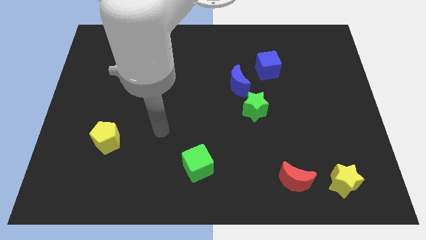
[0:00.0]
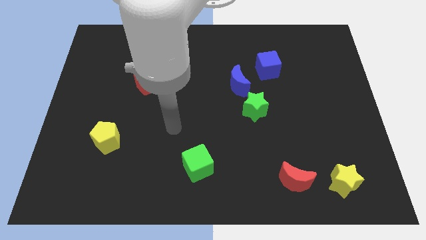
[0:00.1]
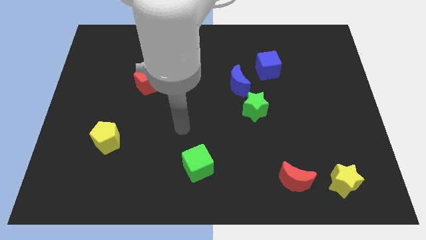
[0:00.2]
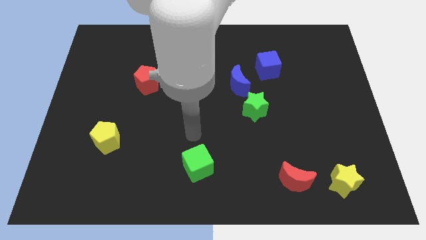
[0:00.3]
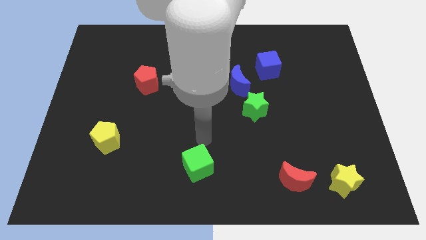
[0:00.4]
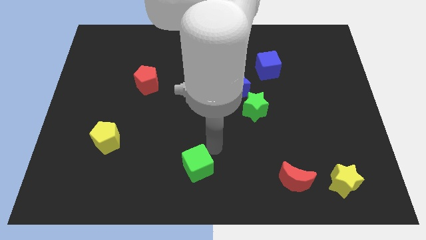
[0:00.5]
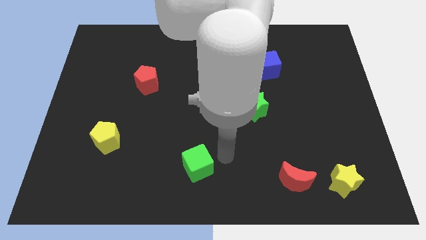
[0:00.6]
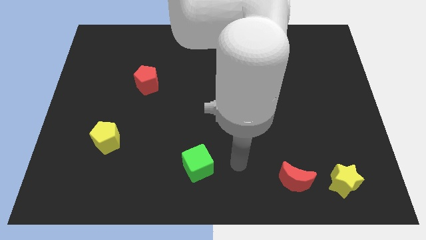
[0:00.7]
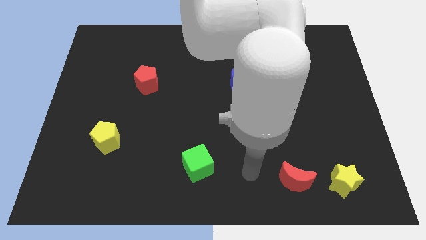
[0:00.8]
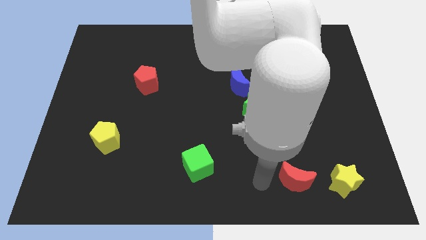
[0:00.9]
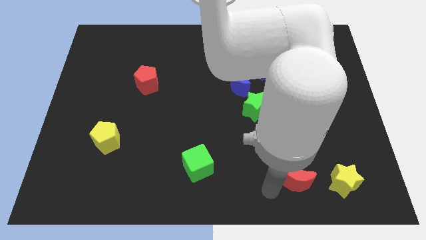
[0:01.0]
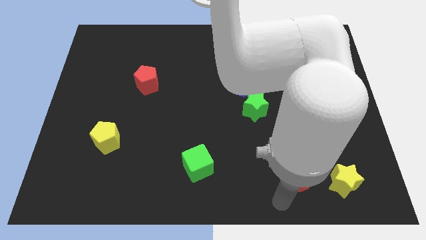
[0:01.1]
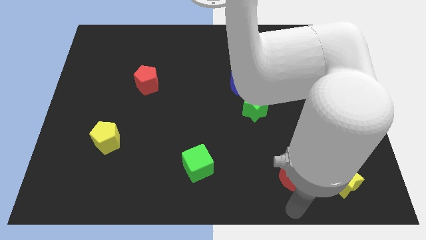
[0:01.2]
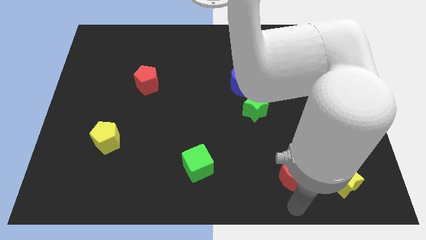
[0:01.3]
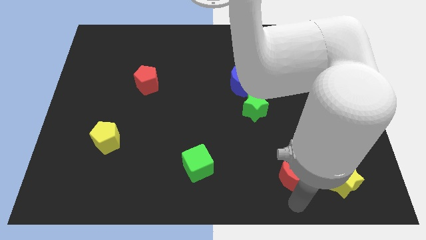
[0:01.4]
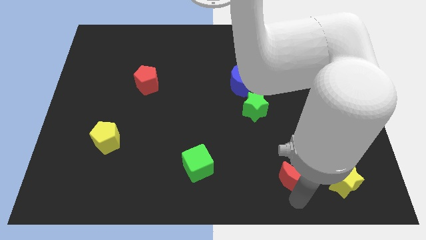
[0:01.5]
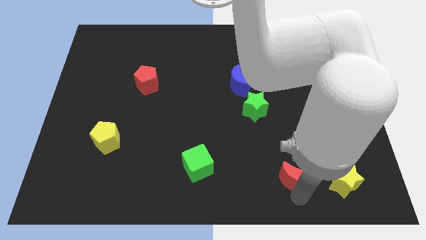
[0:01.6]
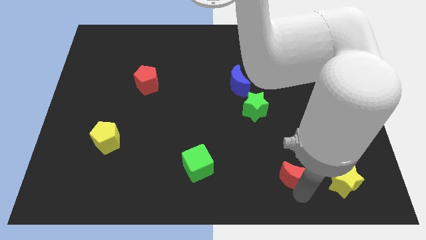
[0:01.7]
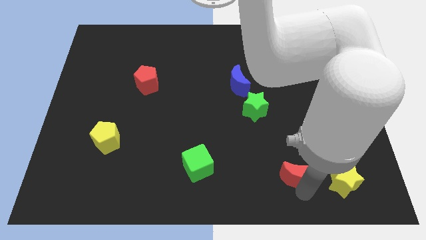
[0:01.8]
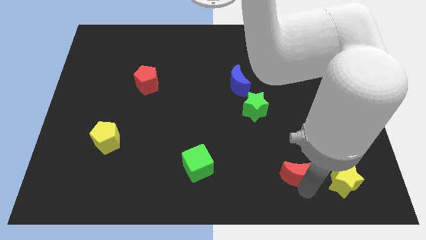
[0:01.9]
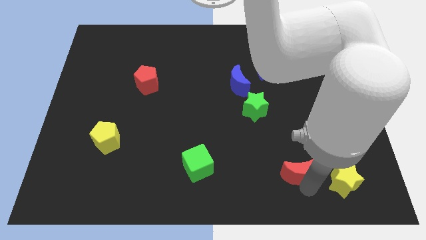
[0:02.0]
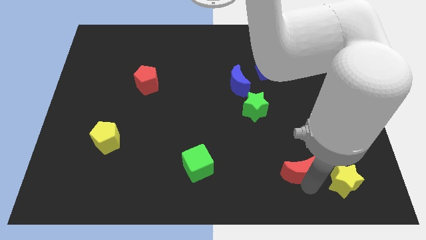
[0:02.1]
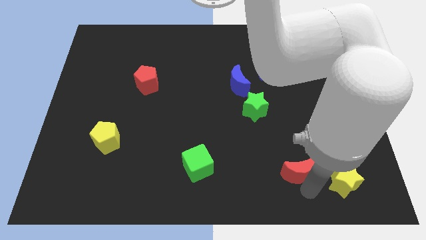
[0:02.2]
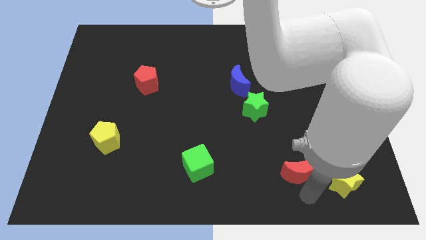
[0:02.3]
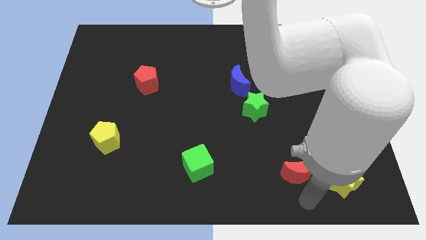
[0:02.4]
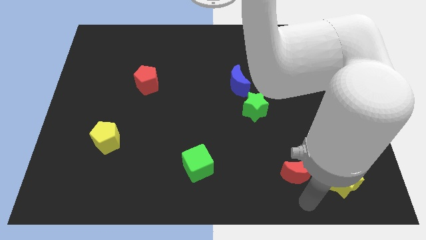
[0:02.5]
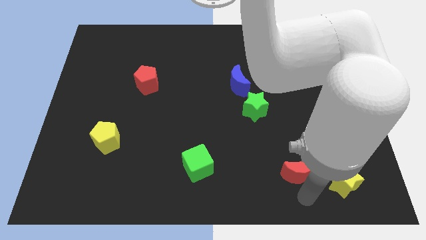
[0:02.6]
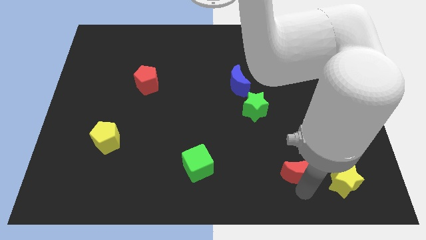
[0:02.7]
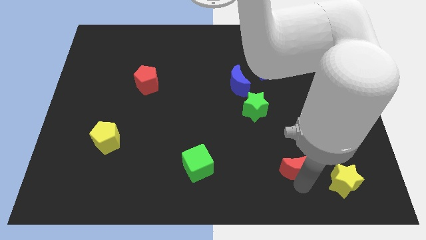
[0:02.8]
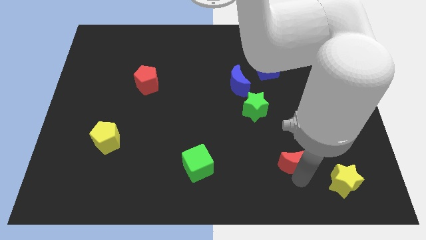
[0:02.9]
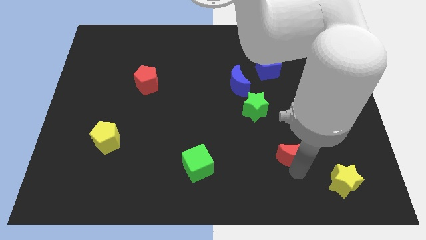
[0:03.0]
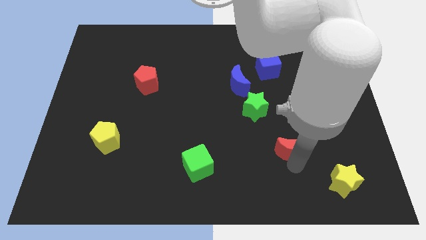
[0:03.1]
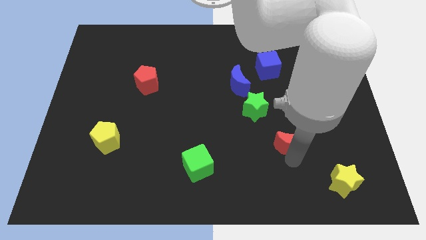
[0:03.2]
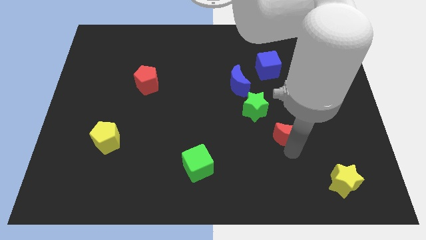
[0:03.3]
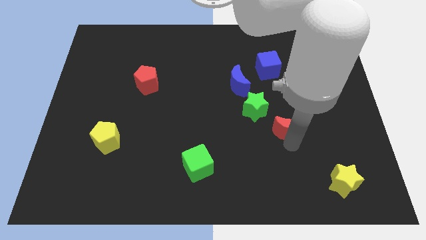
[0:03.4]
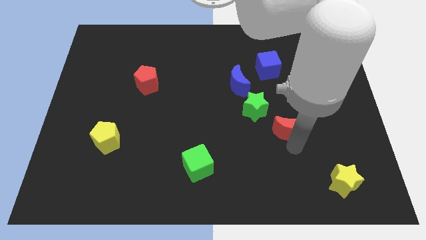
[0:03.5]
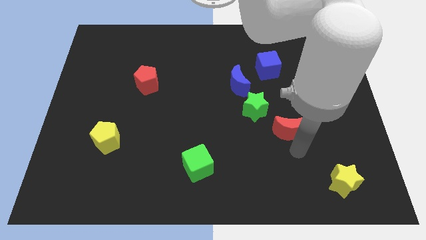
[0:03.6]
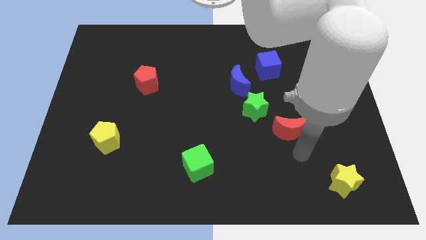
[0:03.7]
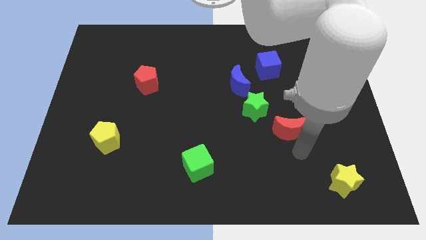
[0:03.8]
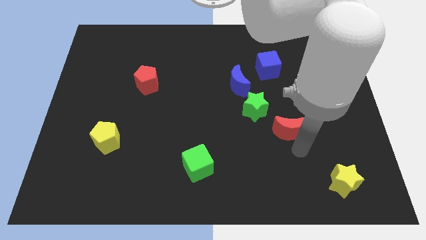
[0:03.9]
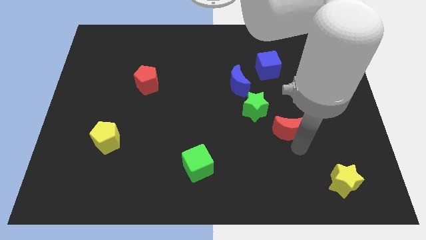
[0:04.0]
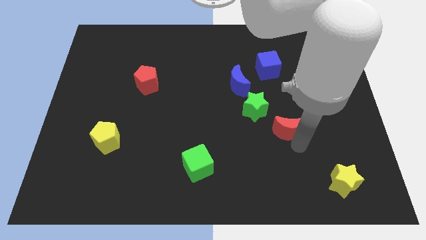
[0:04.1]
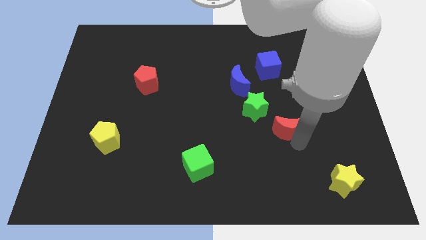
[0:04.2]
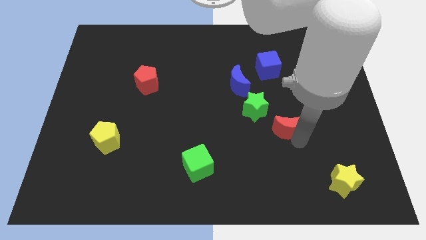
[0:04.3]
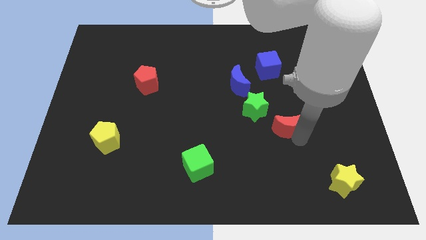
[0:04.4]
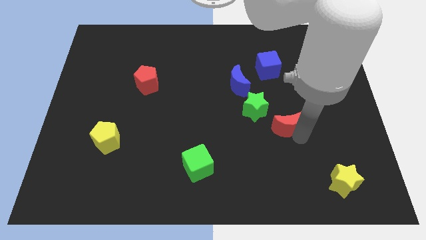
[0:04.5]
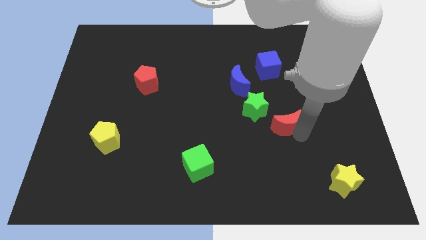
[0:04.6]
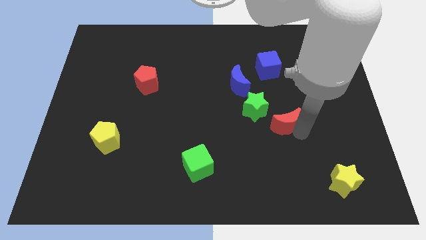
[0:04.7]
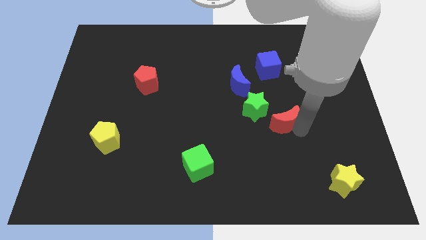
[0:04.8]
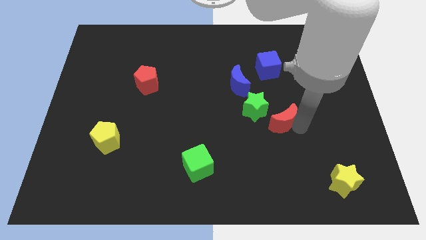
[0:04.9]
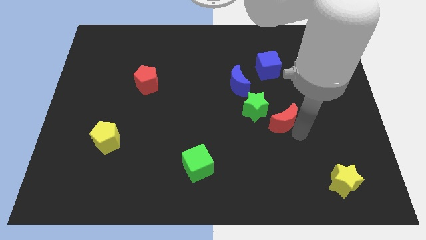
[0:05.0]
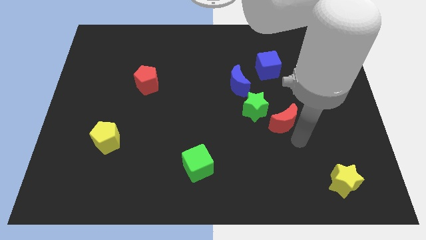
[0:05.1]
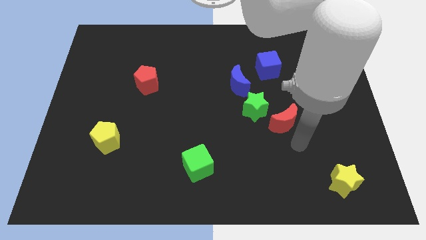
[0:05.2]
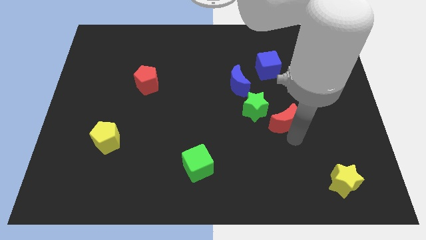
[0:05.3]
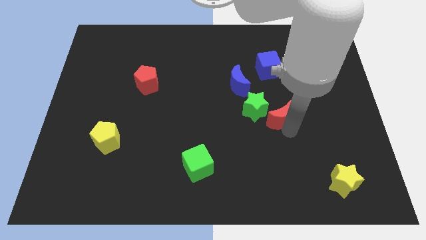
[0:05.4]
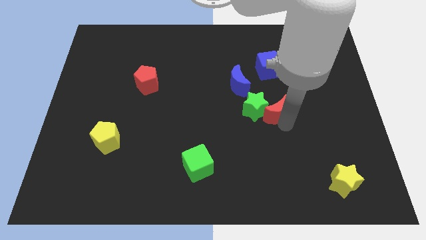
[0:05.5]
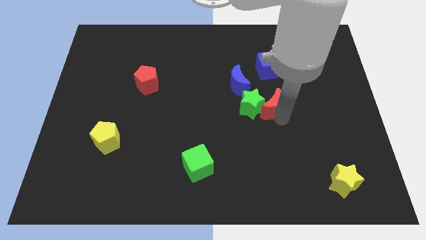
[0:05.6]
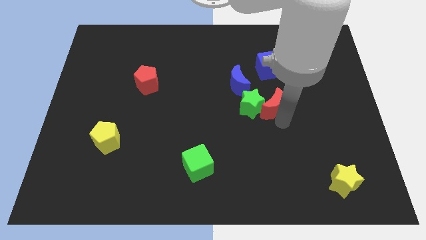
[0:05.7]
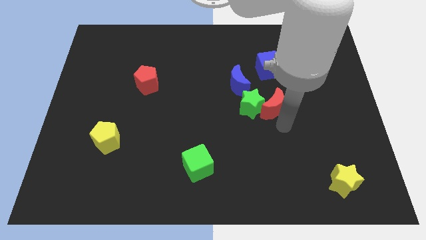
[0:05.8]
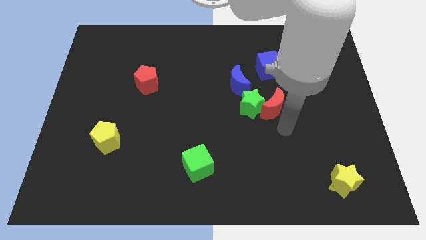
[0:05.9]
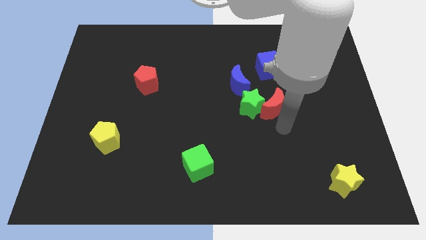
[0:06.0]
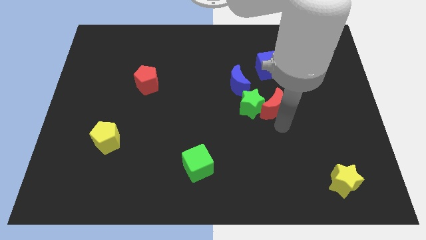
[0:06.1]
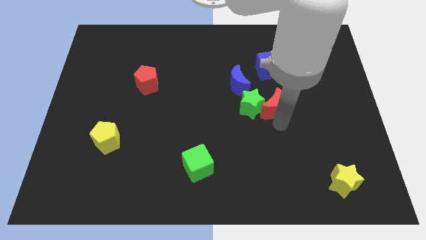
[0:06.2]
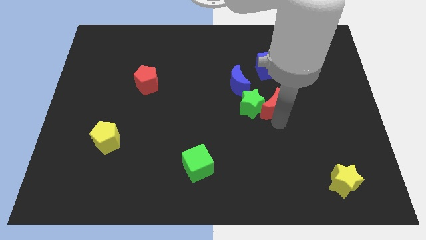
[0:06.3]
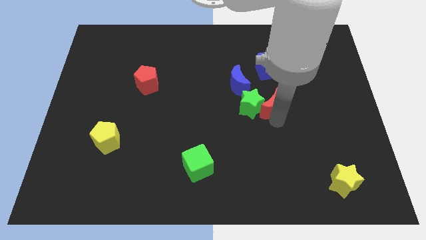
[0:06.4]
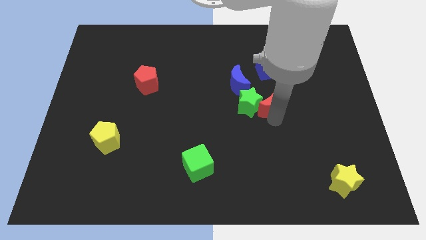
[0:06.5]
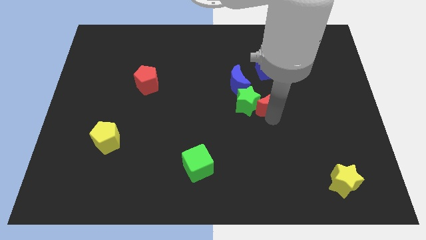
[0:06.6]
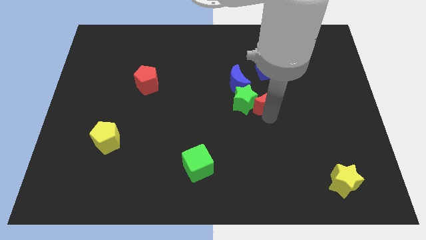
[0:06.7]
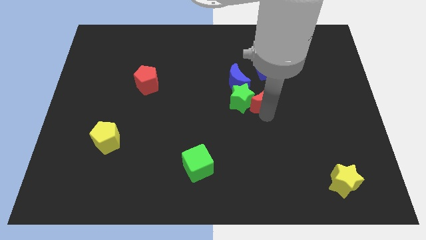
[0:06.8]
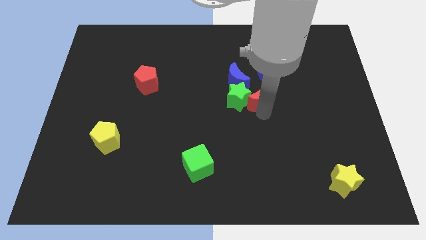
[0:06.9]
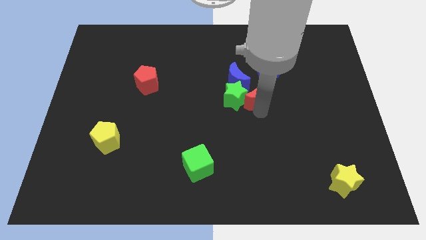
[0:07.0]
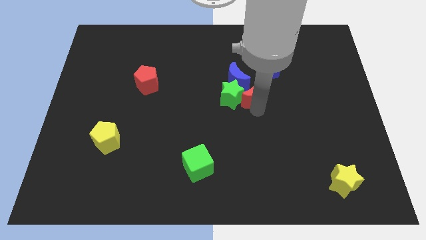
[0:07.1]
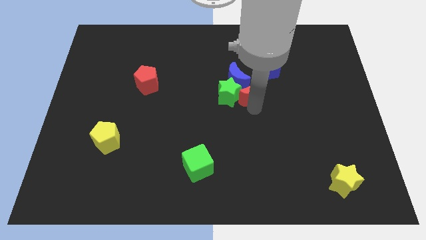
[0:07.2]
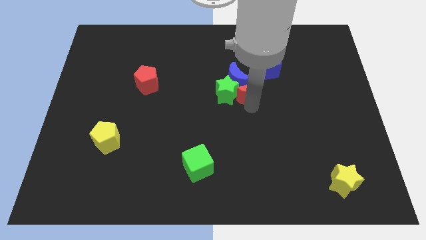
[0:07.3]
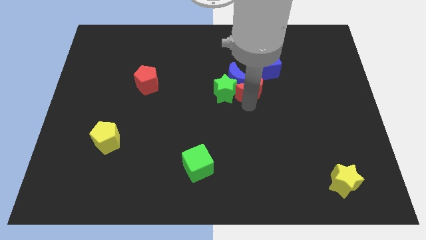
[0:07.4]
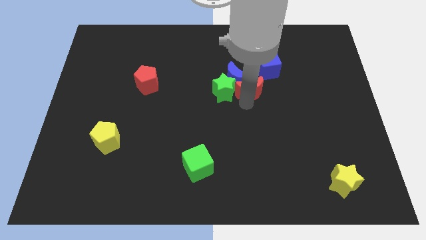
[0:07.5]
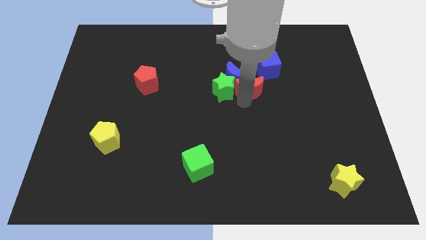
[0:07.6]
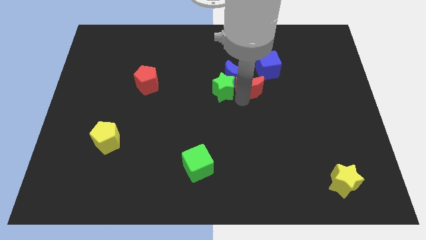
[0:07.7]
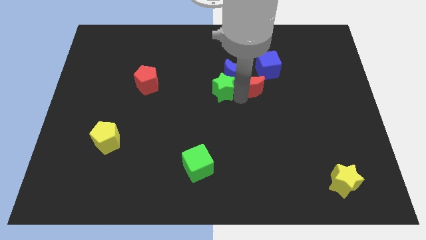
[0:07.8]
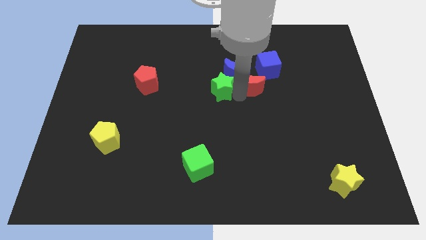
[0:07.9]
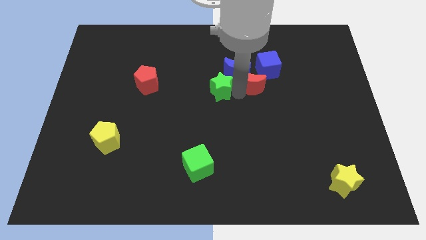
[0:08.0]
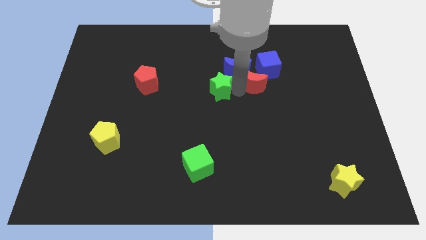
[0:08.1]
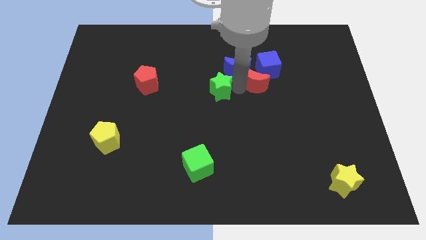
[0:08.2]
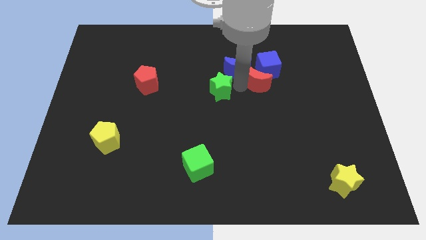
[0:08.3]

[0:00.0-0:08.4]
push the red moon next to the blue cube
